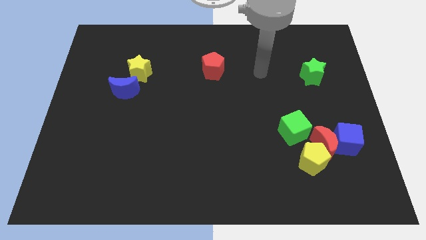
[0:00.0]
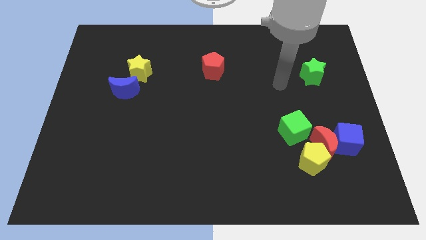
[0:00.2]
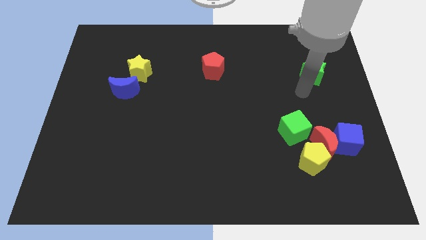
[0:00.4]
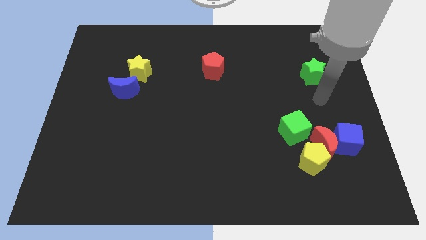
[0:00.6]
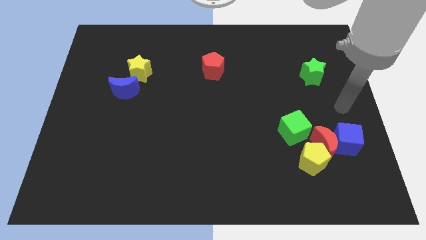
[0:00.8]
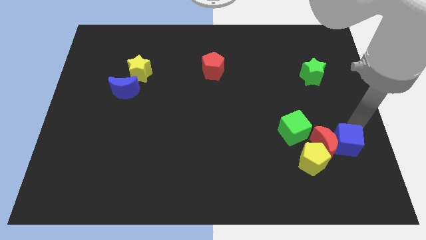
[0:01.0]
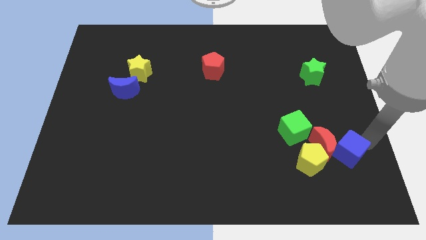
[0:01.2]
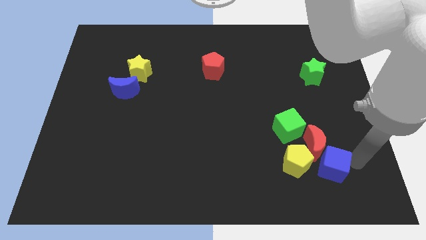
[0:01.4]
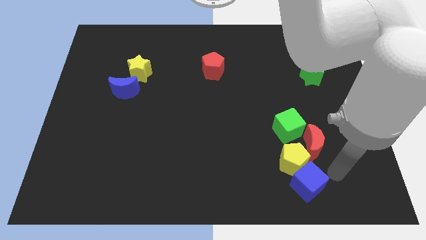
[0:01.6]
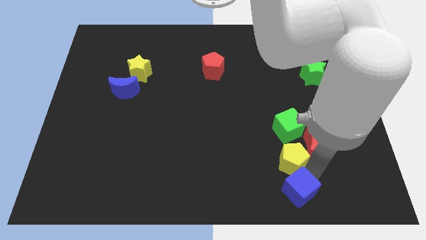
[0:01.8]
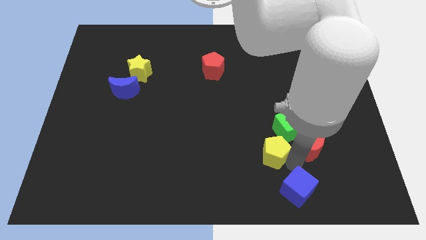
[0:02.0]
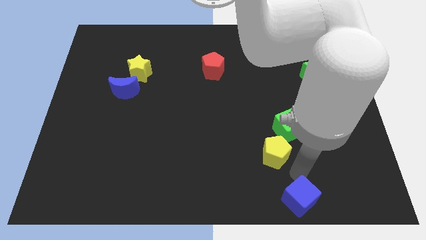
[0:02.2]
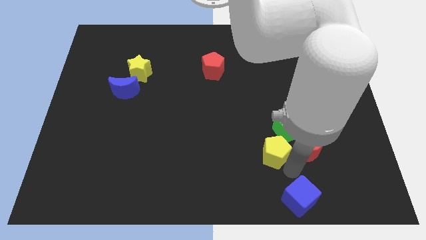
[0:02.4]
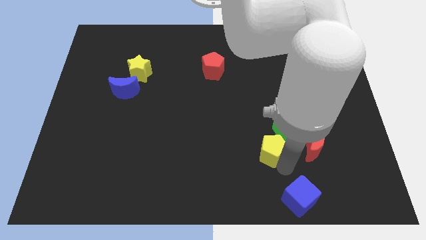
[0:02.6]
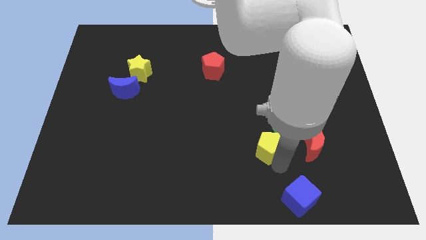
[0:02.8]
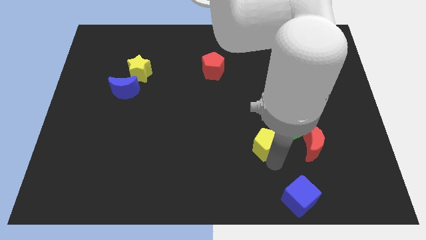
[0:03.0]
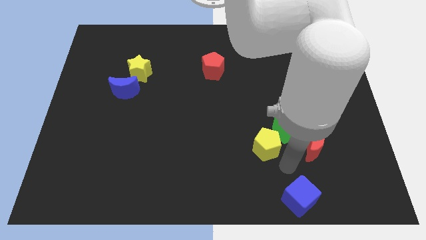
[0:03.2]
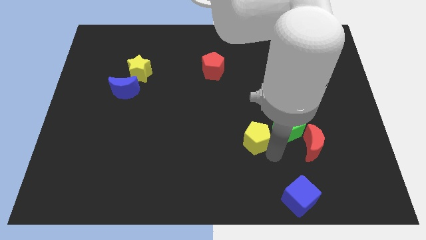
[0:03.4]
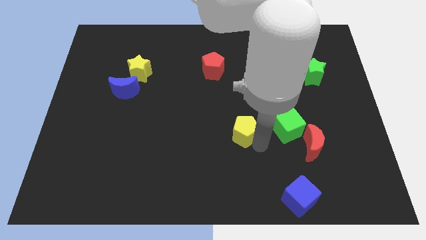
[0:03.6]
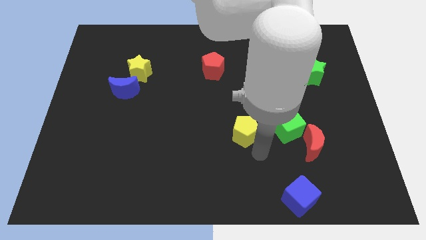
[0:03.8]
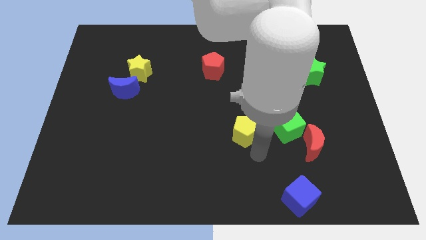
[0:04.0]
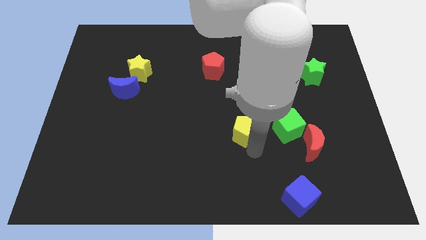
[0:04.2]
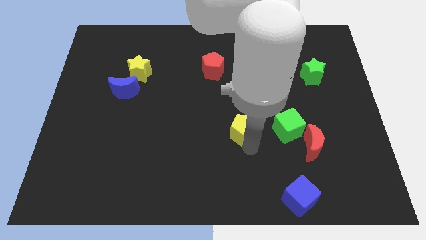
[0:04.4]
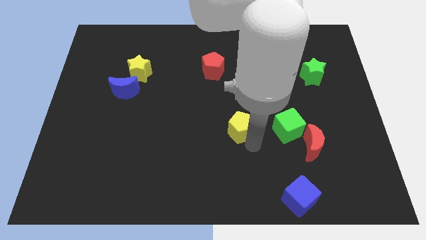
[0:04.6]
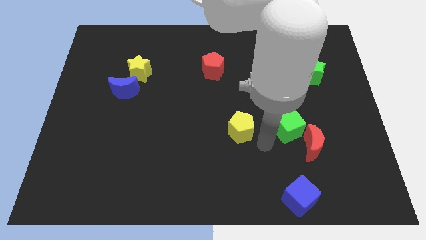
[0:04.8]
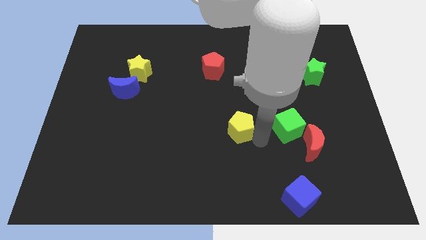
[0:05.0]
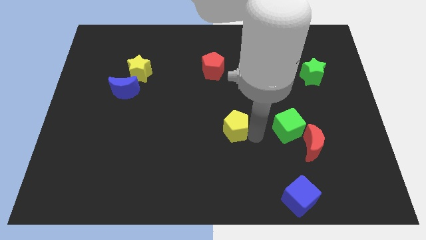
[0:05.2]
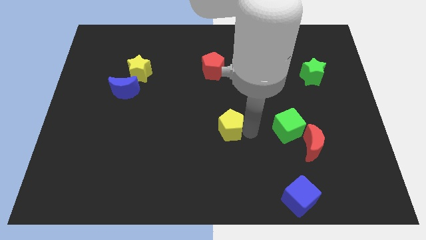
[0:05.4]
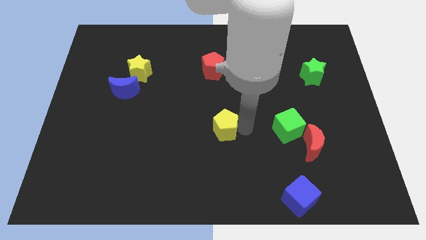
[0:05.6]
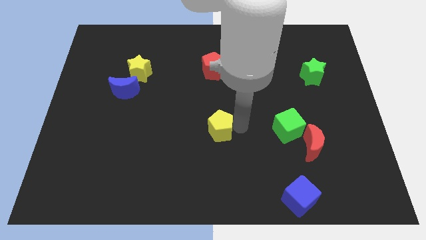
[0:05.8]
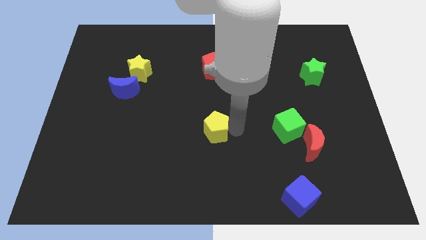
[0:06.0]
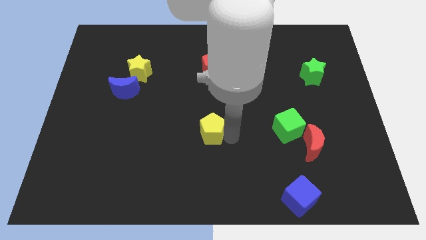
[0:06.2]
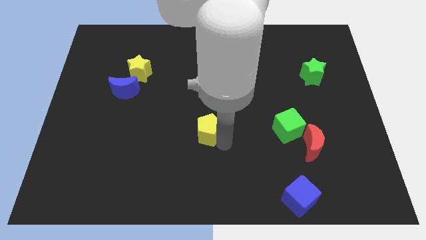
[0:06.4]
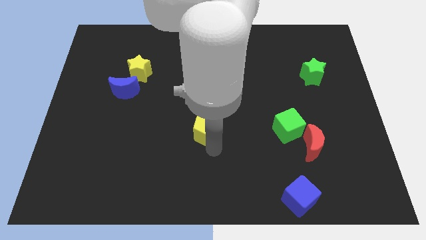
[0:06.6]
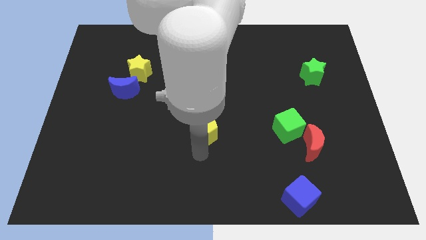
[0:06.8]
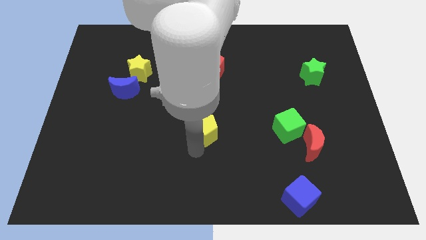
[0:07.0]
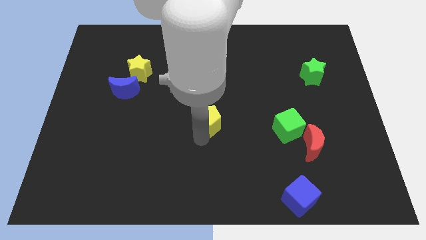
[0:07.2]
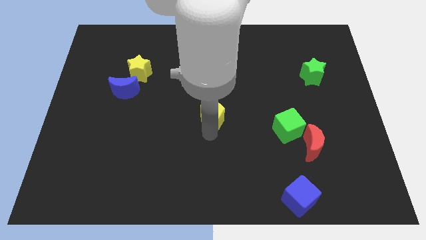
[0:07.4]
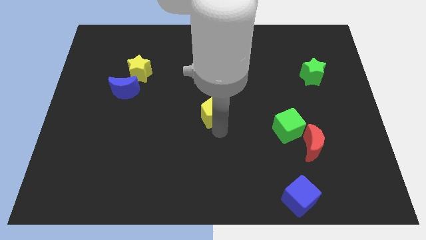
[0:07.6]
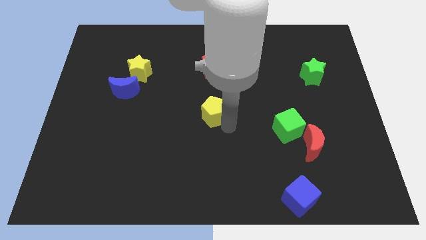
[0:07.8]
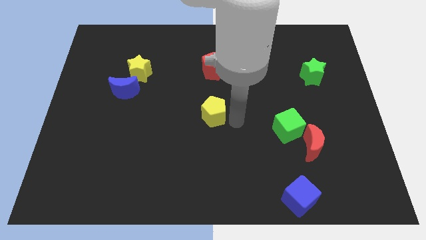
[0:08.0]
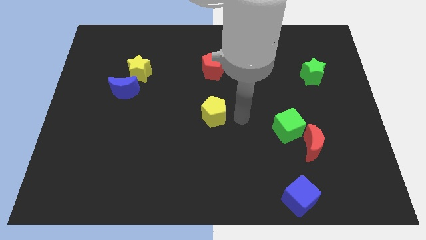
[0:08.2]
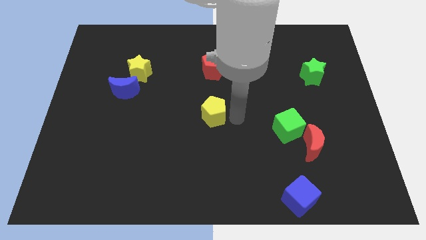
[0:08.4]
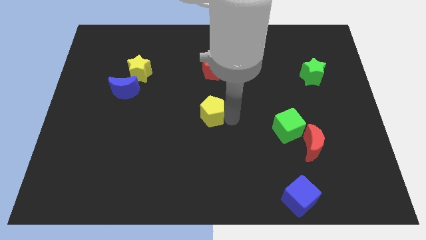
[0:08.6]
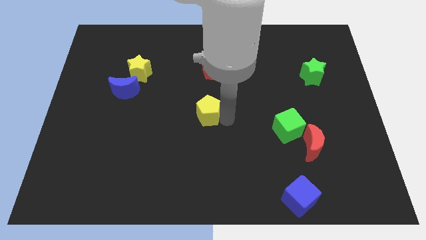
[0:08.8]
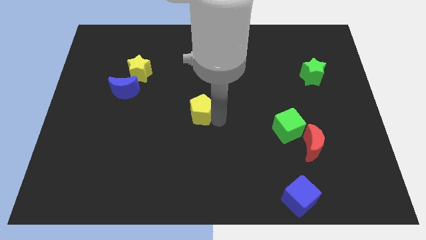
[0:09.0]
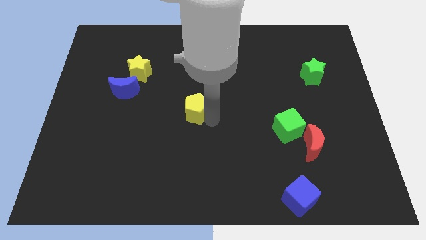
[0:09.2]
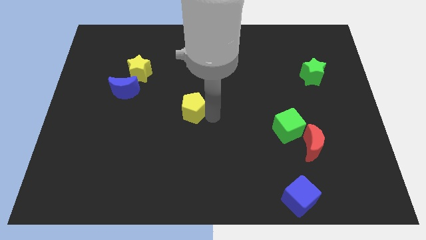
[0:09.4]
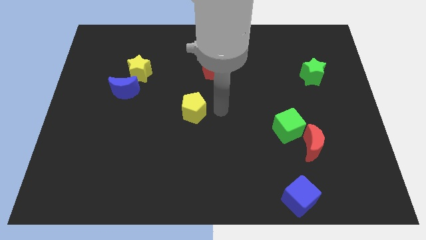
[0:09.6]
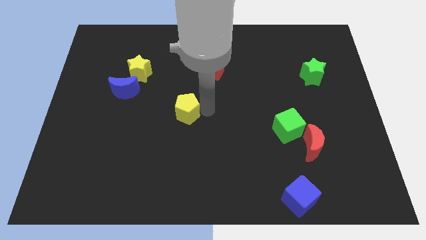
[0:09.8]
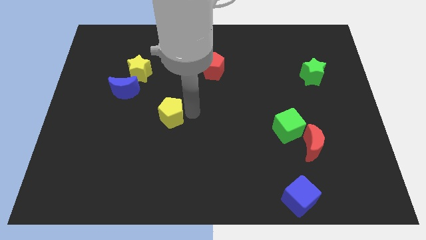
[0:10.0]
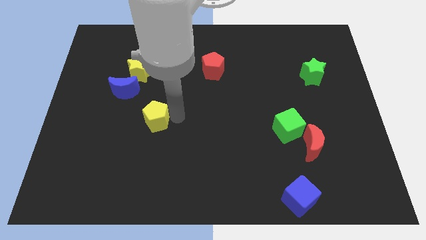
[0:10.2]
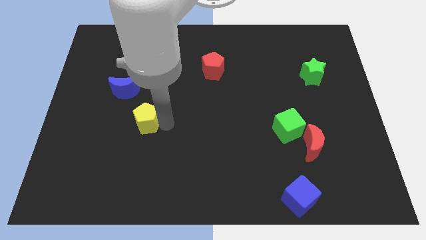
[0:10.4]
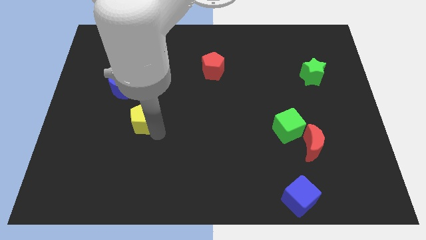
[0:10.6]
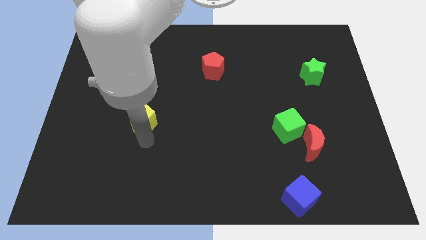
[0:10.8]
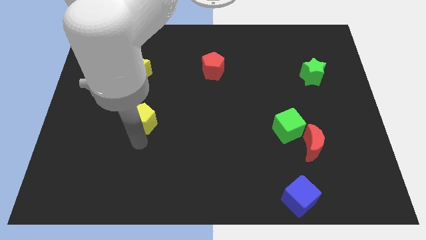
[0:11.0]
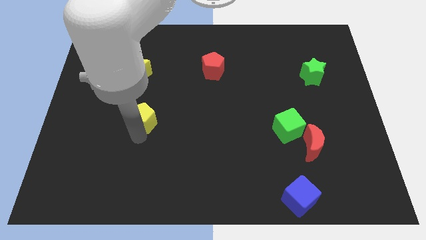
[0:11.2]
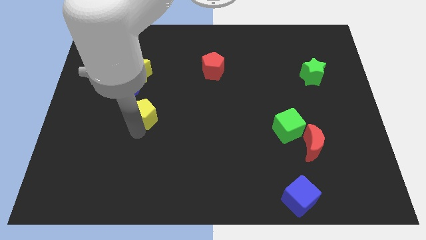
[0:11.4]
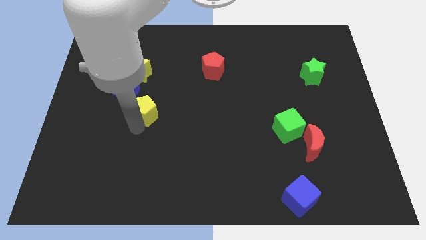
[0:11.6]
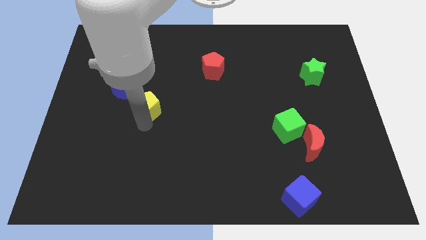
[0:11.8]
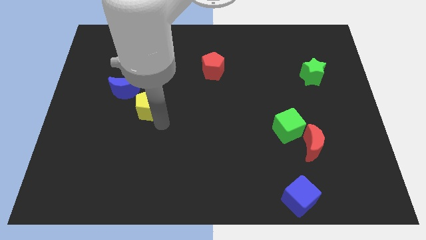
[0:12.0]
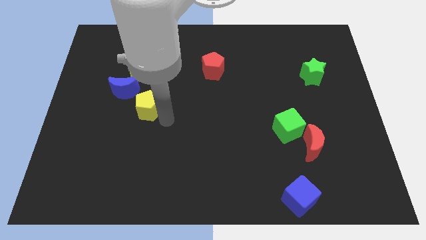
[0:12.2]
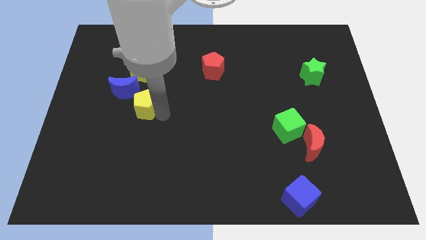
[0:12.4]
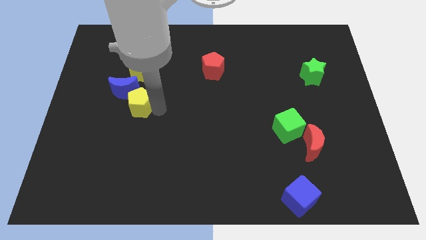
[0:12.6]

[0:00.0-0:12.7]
push the yellow pentagon towards the blue moon

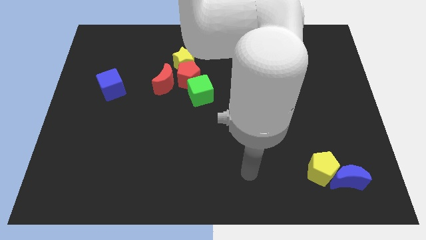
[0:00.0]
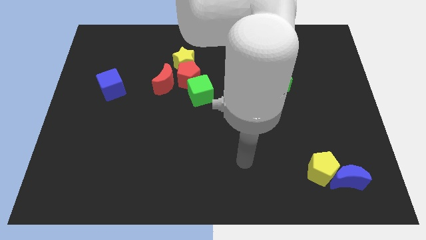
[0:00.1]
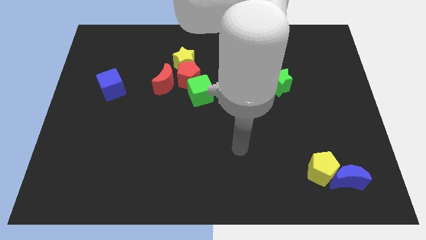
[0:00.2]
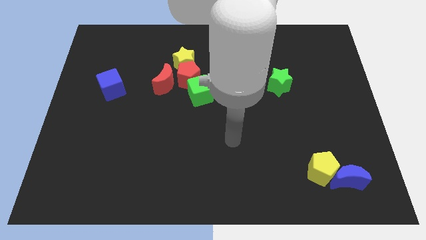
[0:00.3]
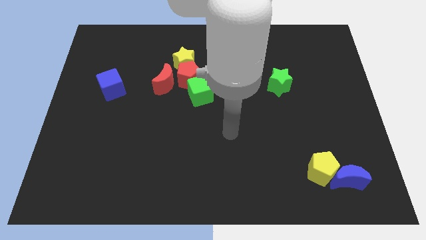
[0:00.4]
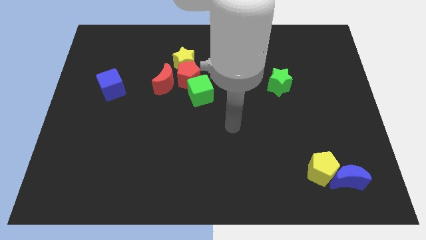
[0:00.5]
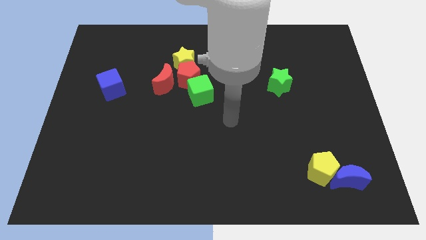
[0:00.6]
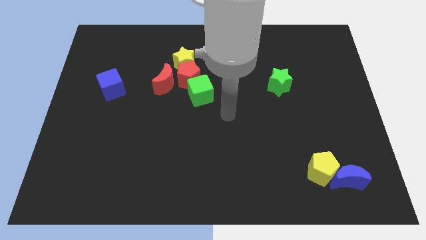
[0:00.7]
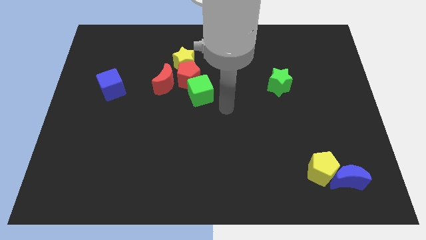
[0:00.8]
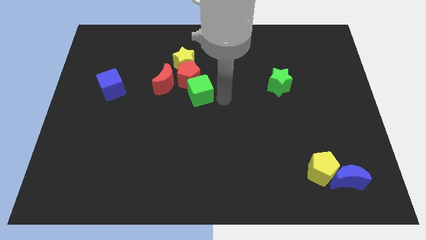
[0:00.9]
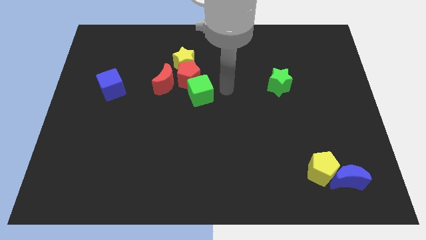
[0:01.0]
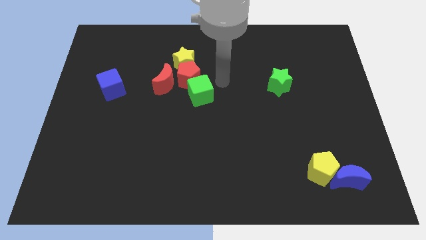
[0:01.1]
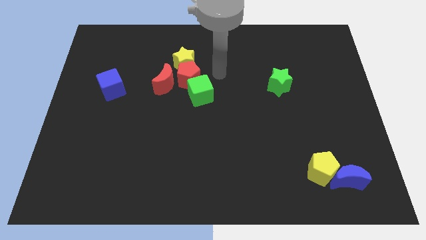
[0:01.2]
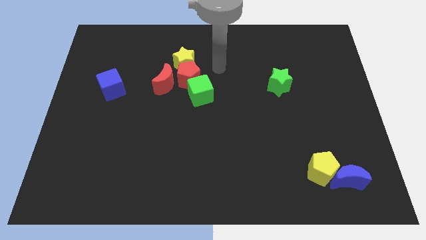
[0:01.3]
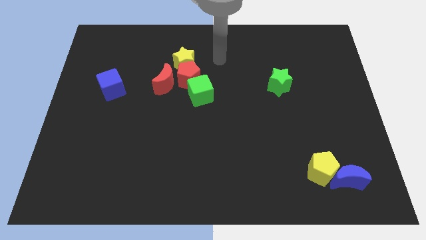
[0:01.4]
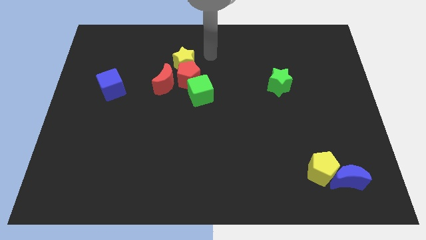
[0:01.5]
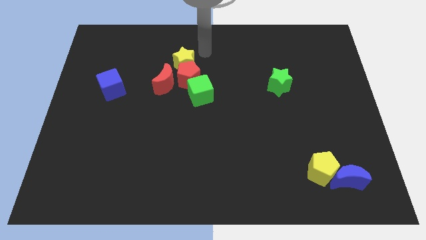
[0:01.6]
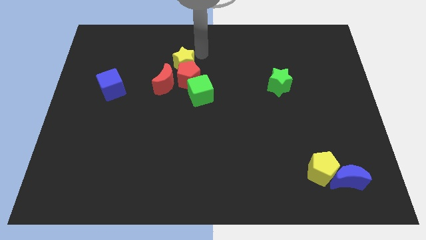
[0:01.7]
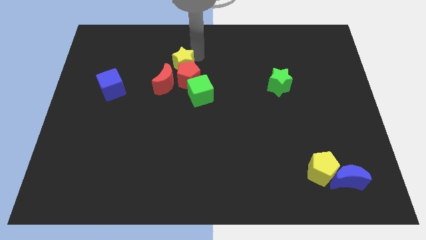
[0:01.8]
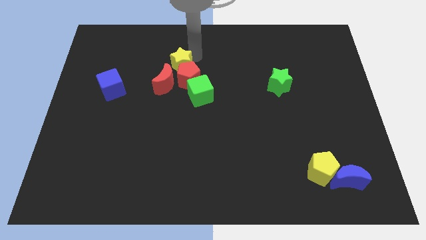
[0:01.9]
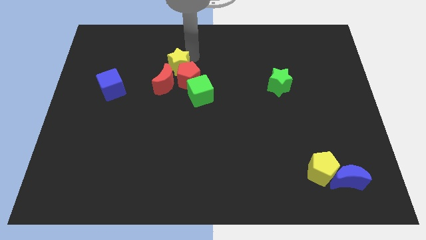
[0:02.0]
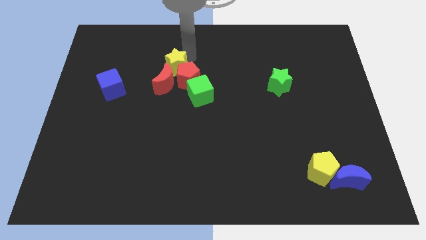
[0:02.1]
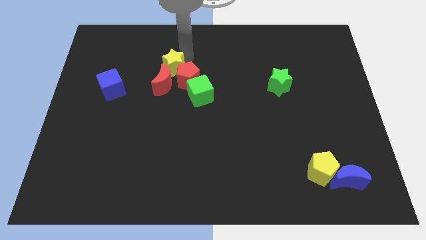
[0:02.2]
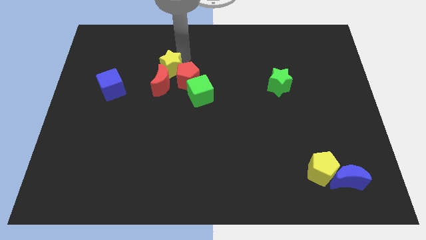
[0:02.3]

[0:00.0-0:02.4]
move the yellow star next to the red moon
